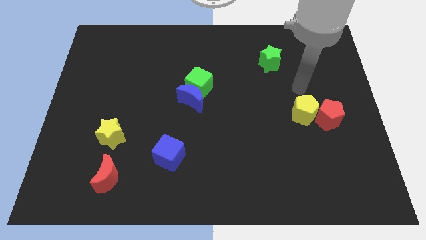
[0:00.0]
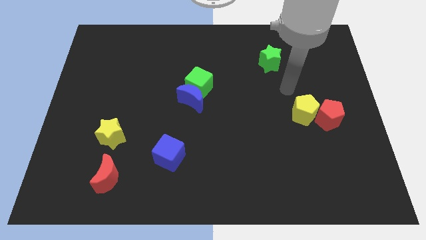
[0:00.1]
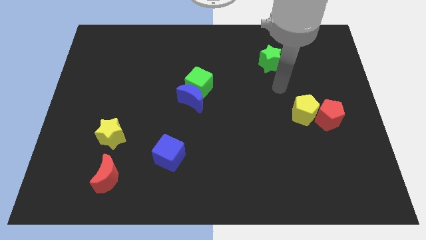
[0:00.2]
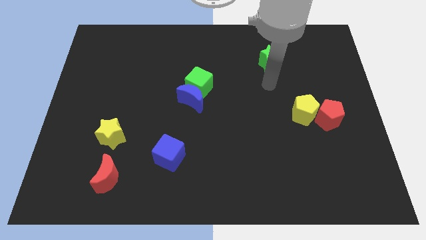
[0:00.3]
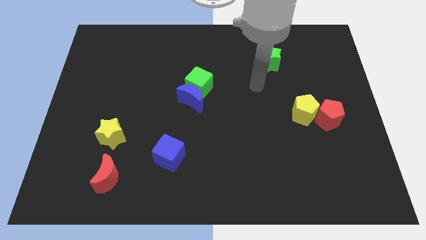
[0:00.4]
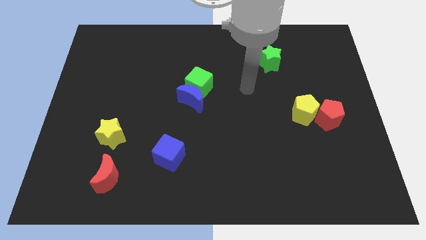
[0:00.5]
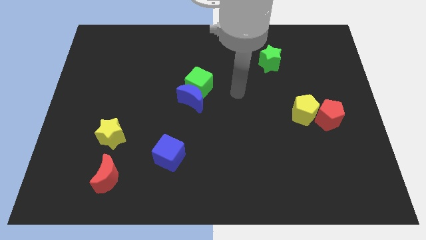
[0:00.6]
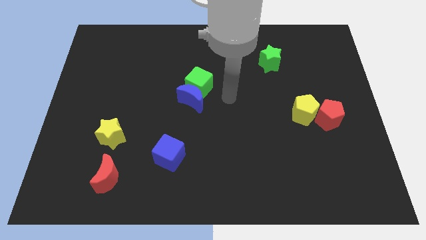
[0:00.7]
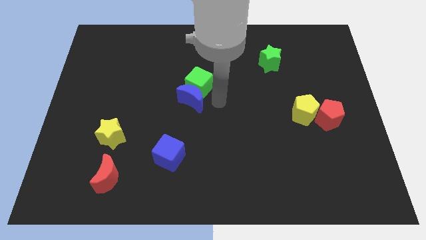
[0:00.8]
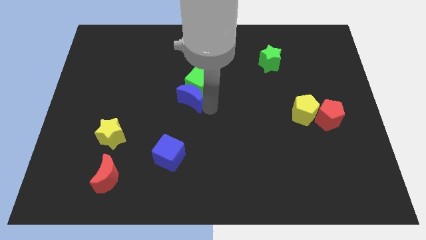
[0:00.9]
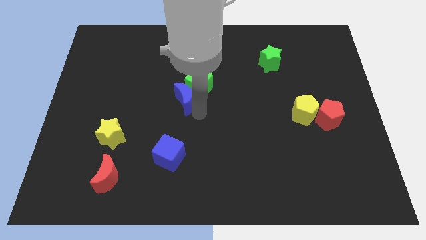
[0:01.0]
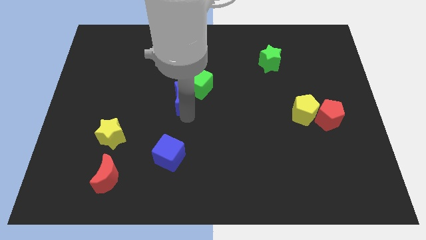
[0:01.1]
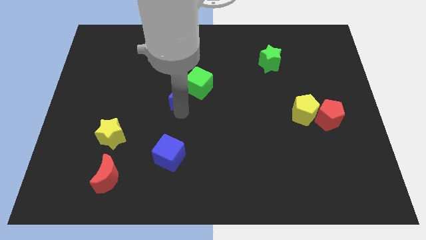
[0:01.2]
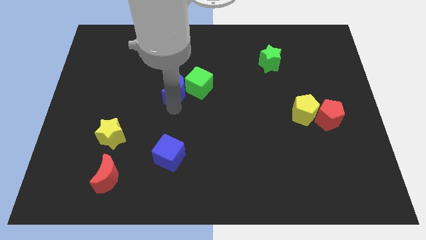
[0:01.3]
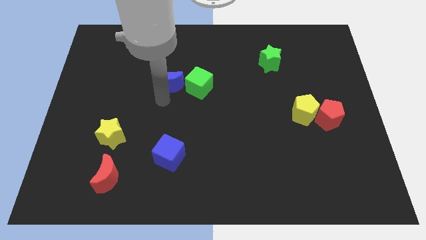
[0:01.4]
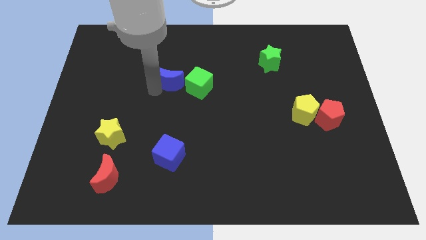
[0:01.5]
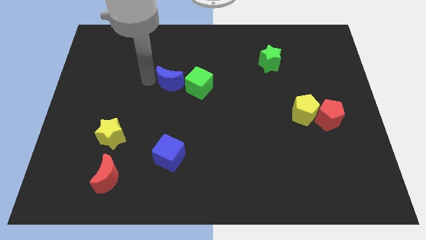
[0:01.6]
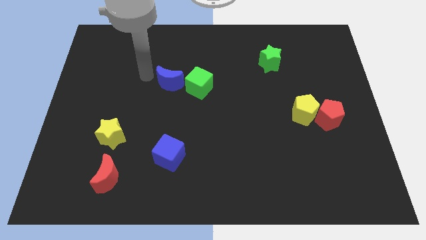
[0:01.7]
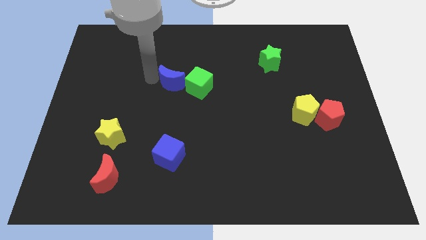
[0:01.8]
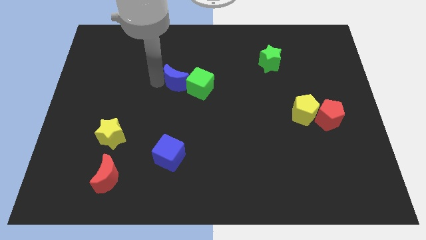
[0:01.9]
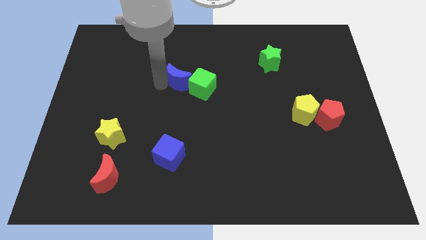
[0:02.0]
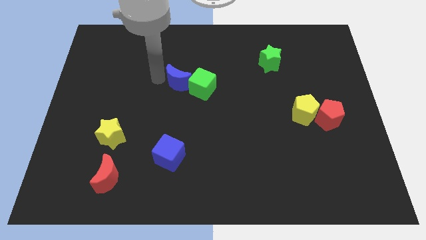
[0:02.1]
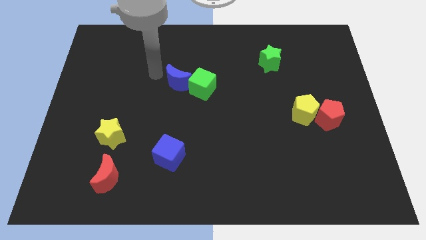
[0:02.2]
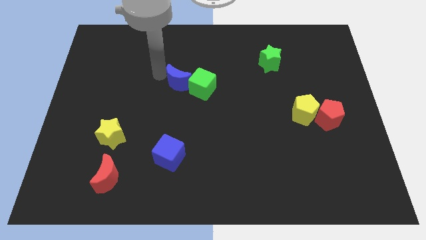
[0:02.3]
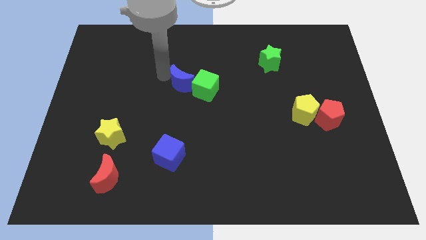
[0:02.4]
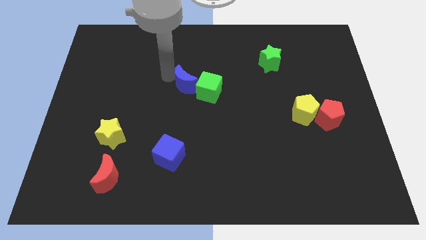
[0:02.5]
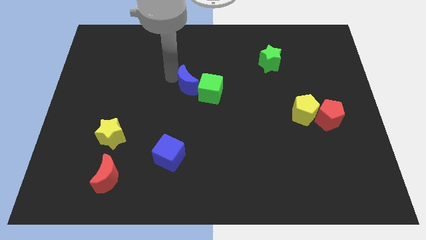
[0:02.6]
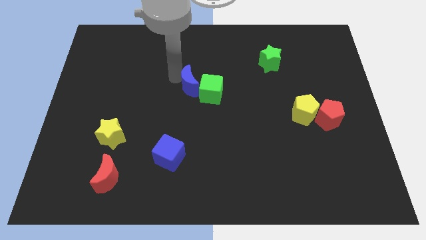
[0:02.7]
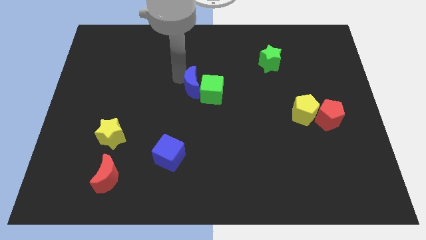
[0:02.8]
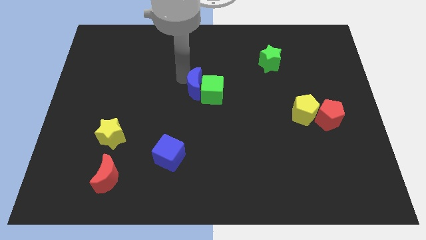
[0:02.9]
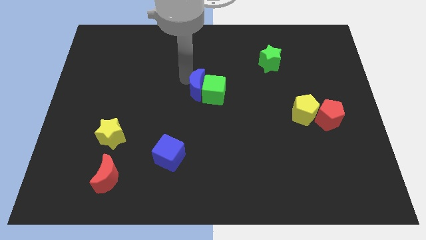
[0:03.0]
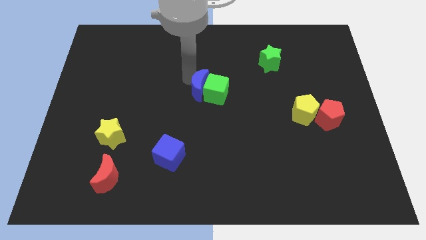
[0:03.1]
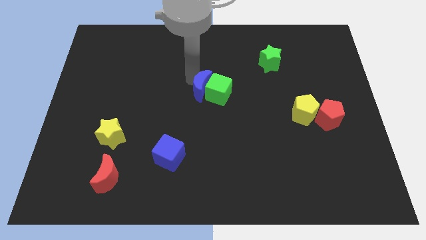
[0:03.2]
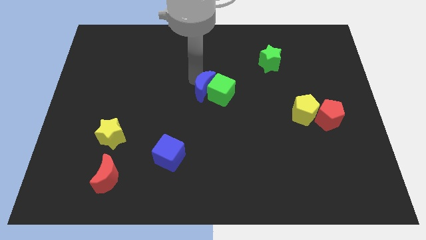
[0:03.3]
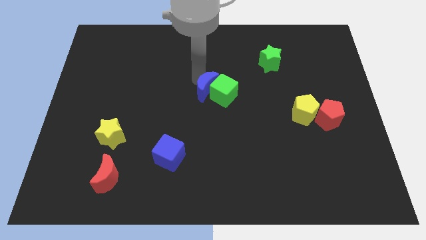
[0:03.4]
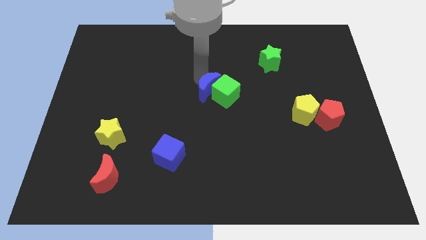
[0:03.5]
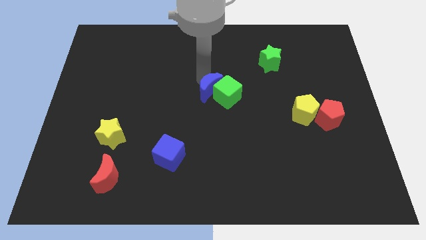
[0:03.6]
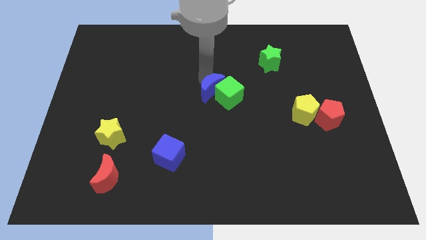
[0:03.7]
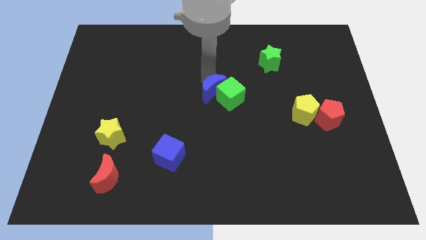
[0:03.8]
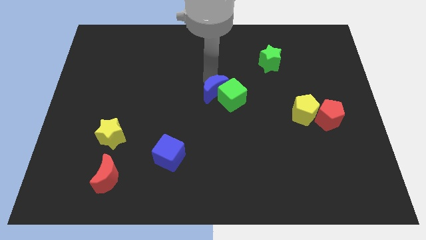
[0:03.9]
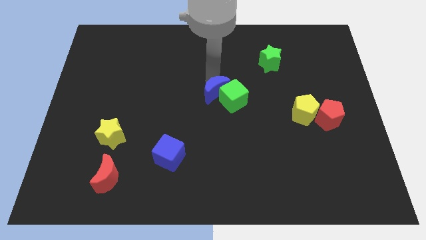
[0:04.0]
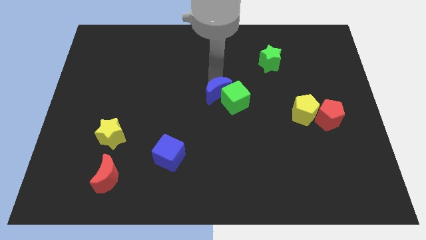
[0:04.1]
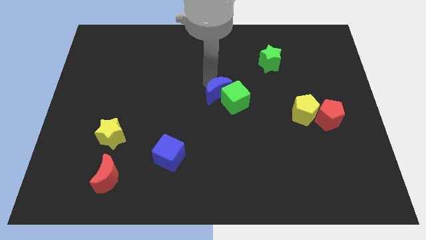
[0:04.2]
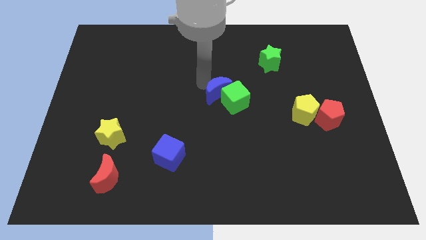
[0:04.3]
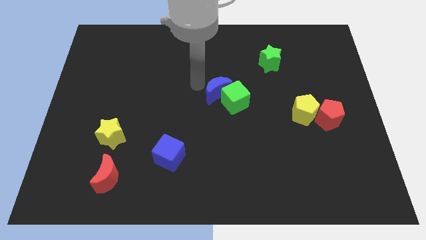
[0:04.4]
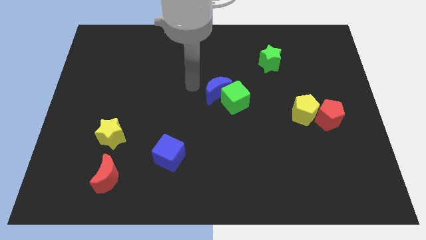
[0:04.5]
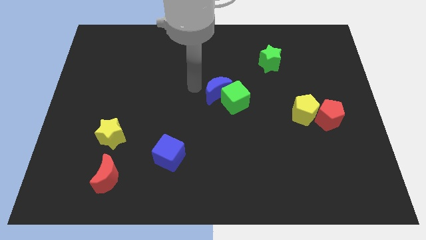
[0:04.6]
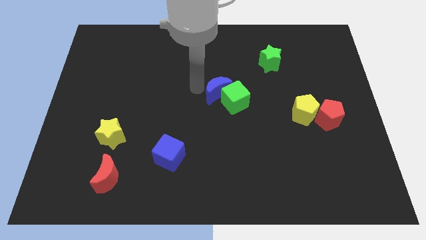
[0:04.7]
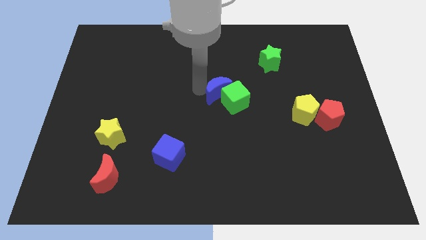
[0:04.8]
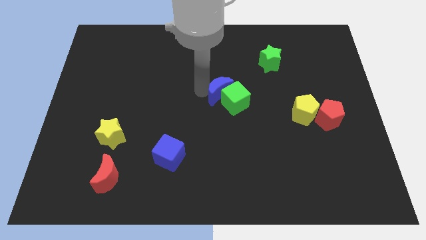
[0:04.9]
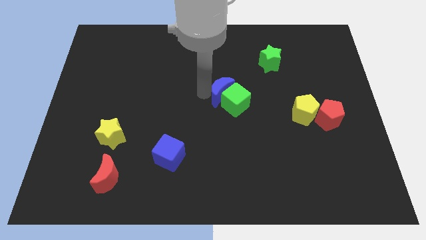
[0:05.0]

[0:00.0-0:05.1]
slightly push the blue moon right

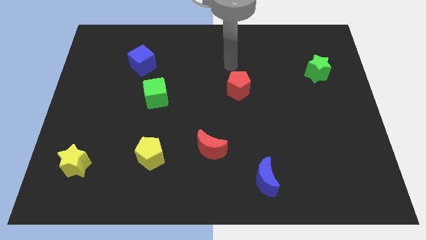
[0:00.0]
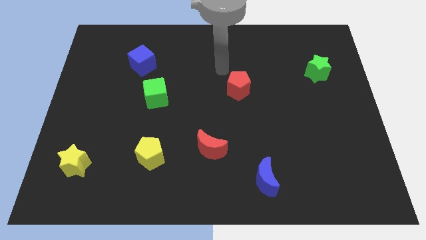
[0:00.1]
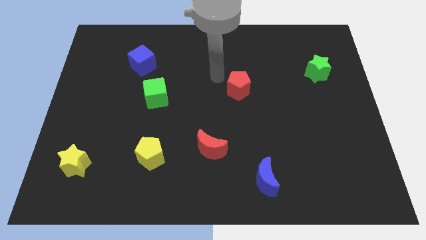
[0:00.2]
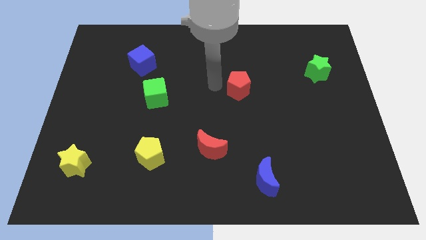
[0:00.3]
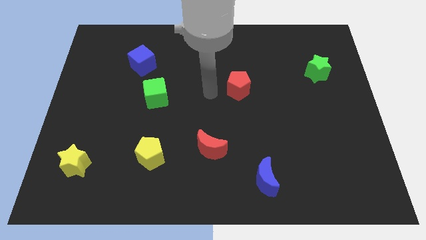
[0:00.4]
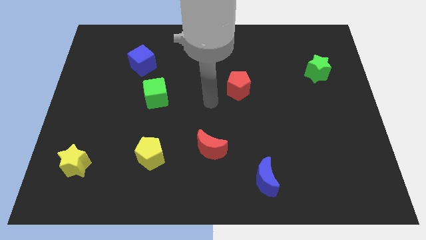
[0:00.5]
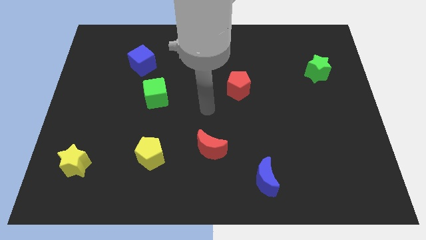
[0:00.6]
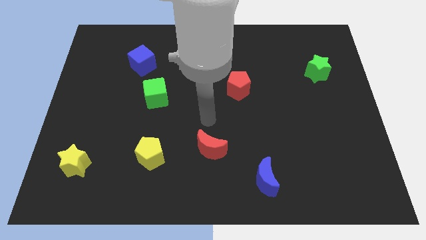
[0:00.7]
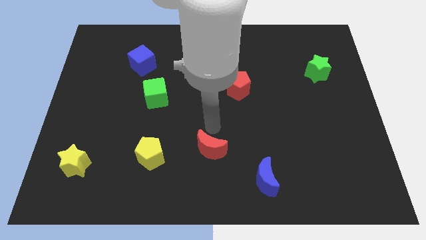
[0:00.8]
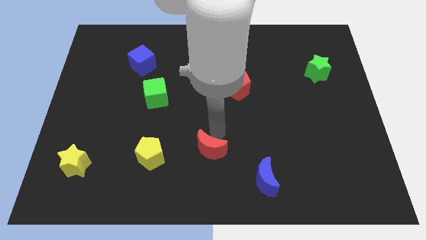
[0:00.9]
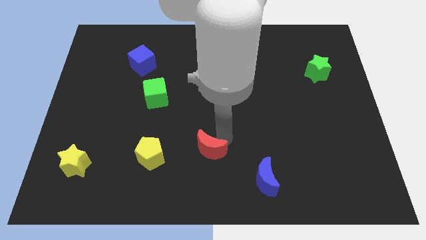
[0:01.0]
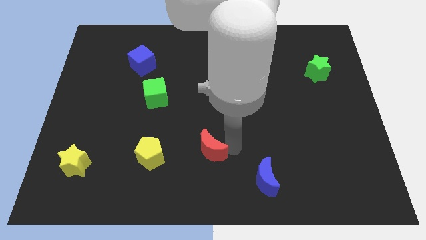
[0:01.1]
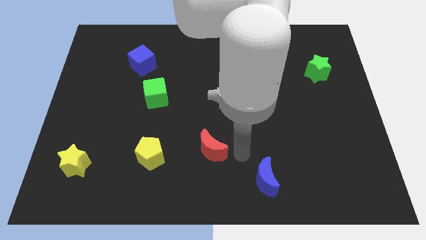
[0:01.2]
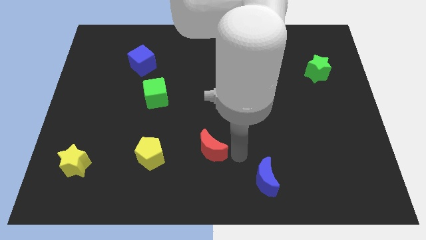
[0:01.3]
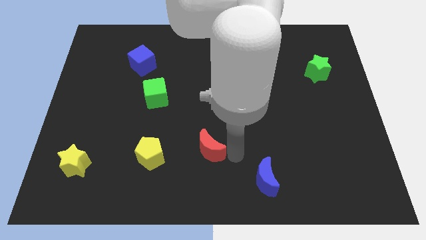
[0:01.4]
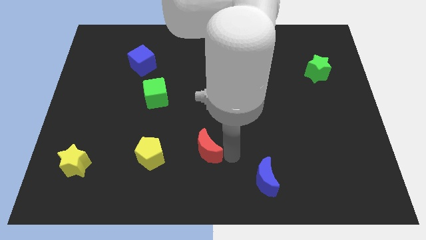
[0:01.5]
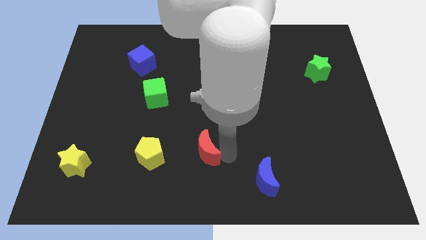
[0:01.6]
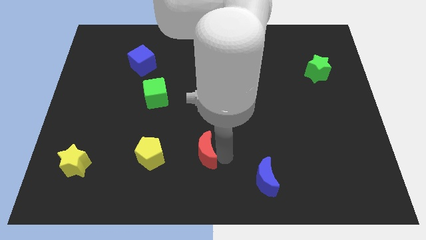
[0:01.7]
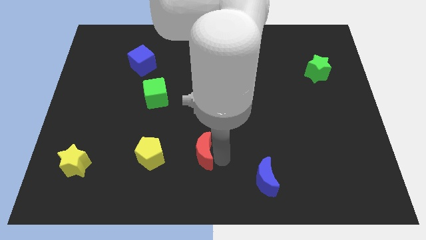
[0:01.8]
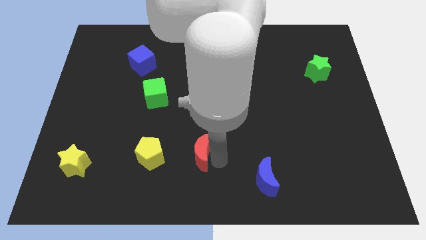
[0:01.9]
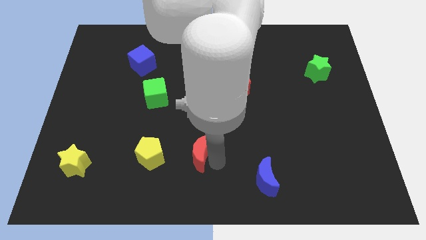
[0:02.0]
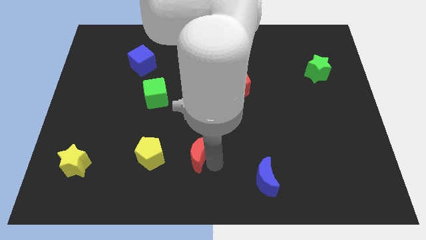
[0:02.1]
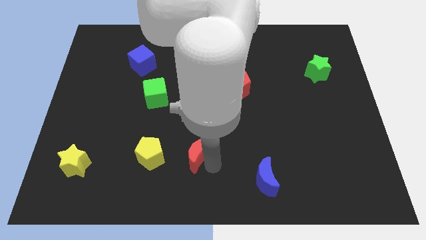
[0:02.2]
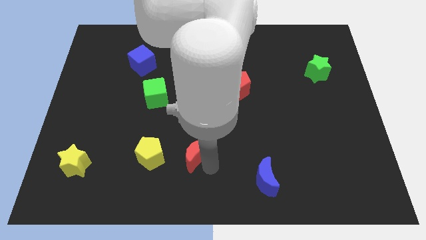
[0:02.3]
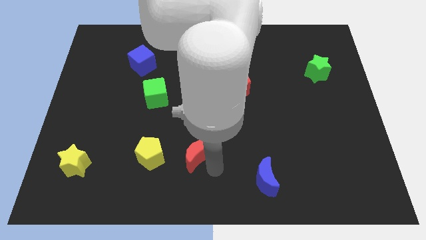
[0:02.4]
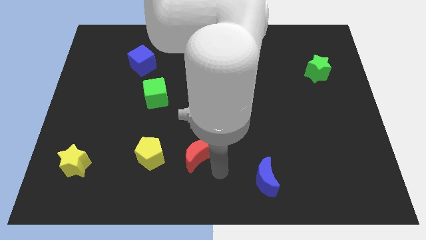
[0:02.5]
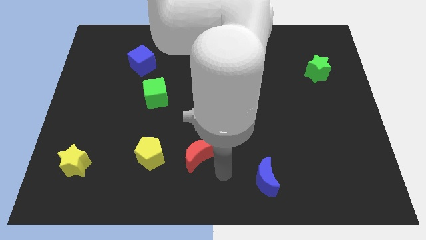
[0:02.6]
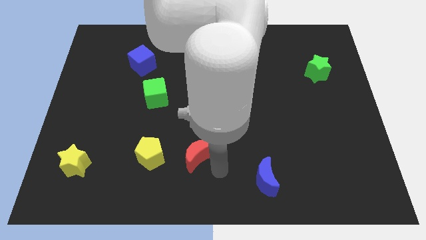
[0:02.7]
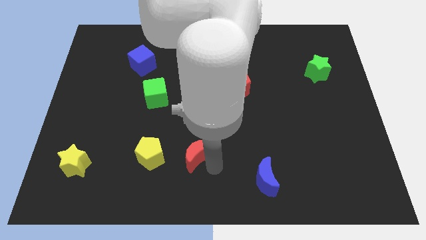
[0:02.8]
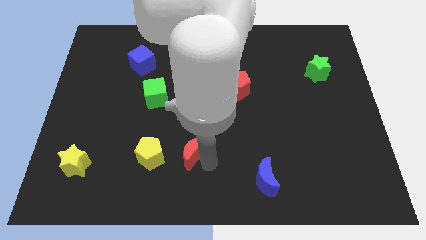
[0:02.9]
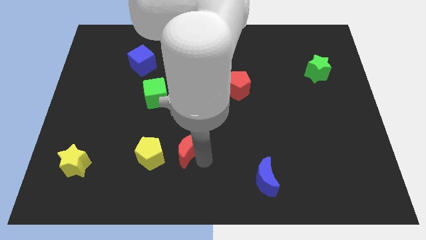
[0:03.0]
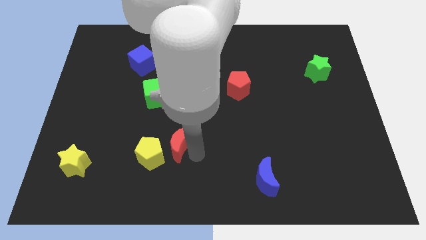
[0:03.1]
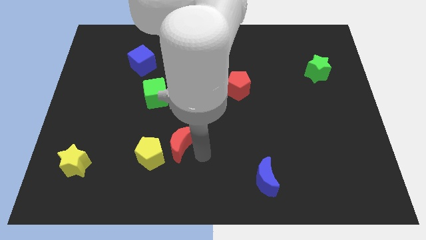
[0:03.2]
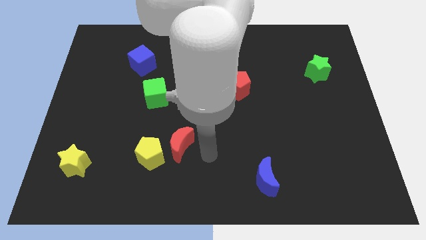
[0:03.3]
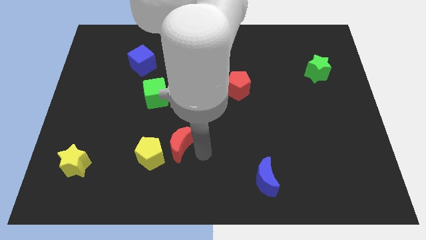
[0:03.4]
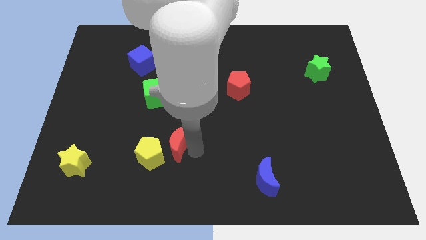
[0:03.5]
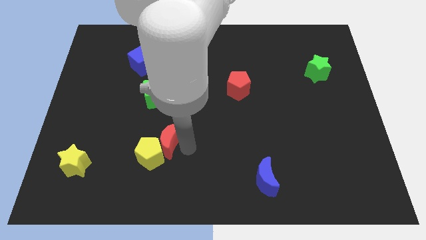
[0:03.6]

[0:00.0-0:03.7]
slide the red moon to the left somewhat
